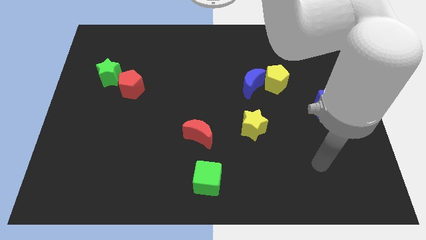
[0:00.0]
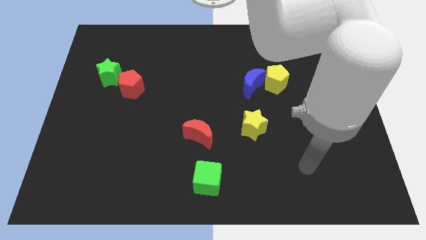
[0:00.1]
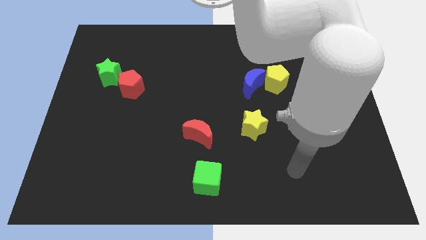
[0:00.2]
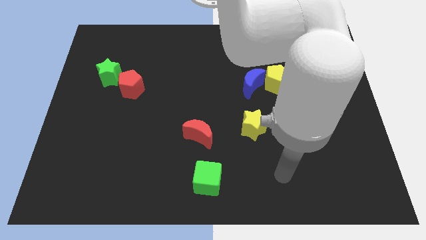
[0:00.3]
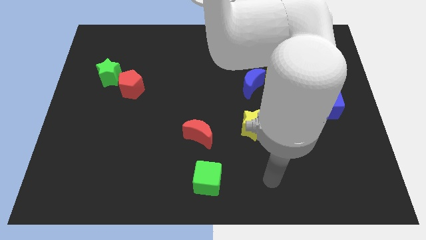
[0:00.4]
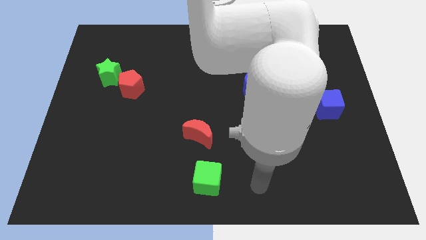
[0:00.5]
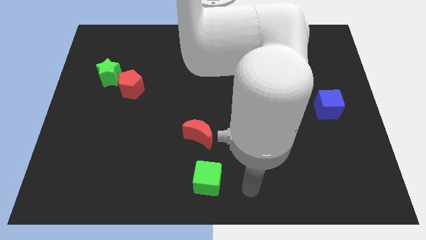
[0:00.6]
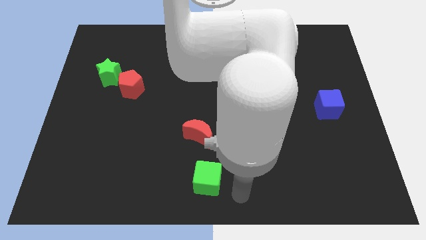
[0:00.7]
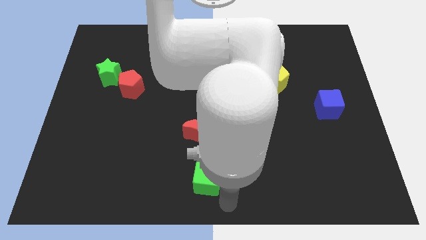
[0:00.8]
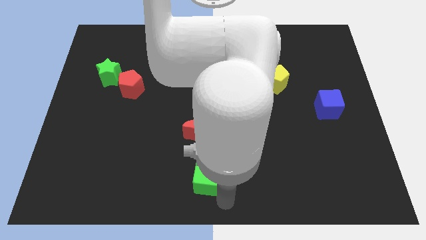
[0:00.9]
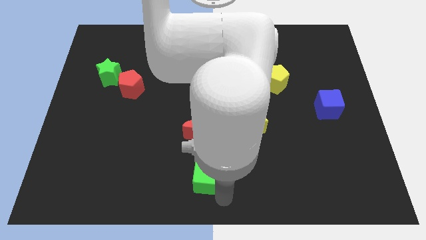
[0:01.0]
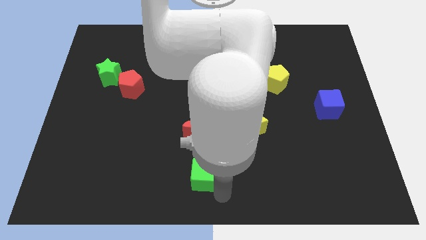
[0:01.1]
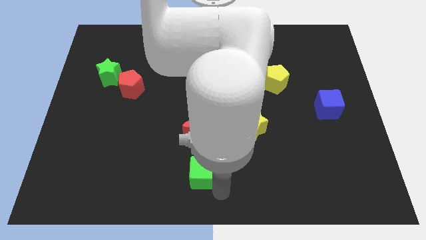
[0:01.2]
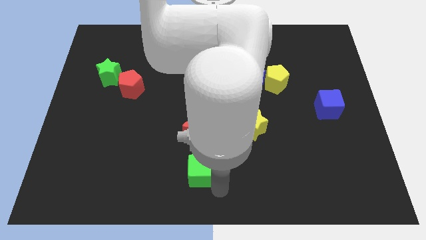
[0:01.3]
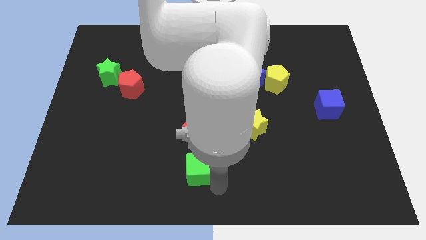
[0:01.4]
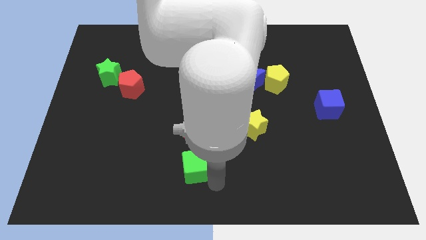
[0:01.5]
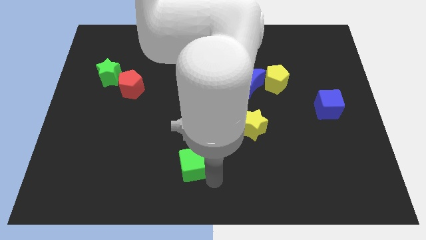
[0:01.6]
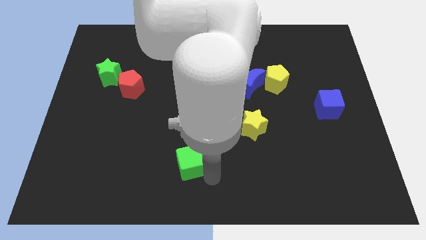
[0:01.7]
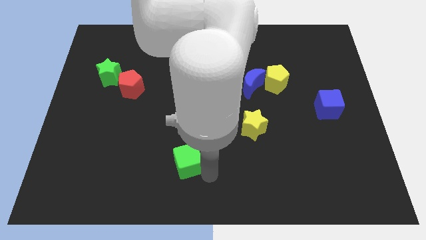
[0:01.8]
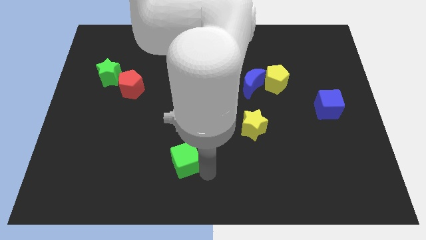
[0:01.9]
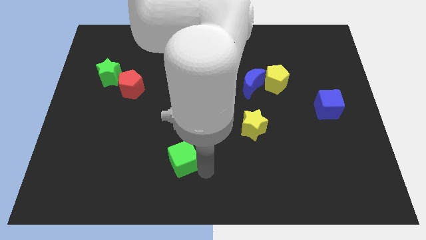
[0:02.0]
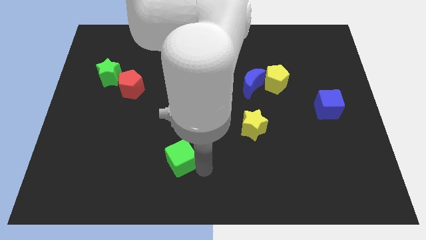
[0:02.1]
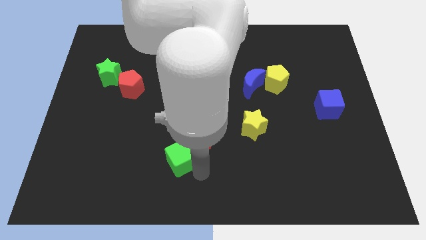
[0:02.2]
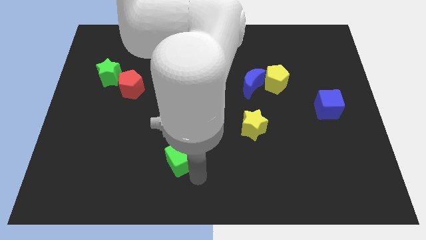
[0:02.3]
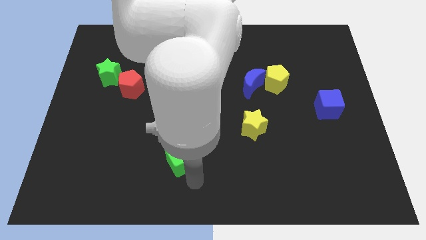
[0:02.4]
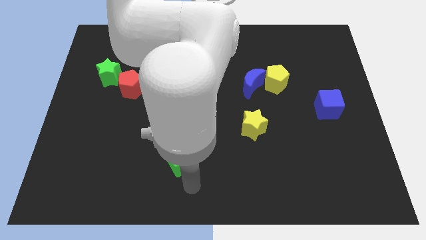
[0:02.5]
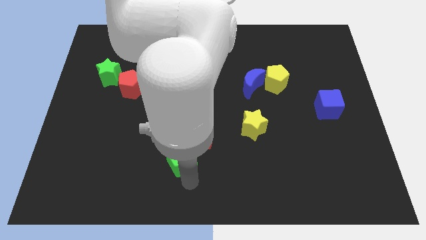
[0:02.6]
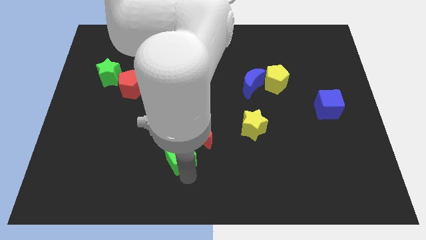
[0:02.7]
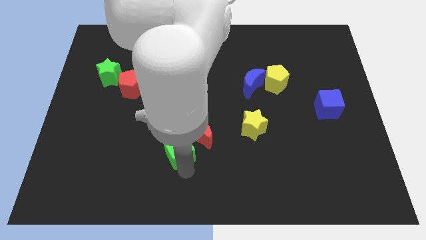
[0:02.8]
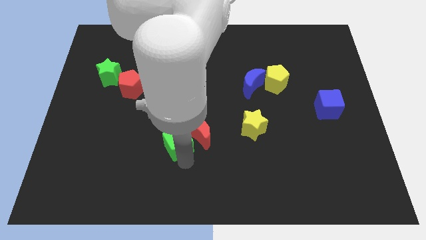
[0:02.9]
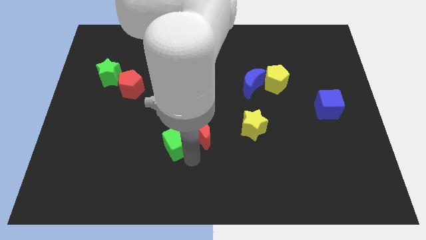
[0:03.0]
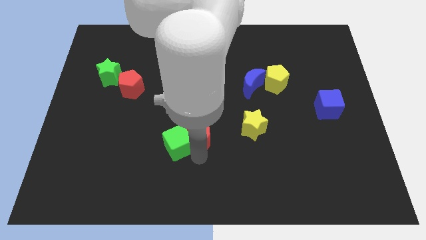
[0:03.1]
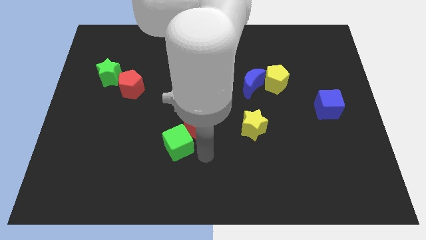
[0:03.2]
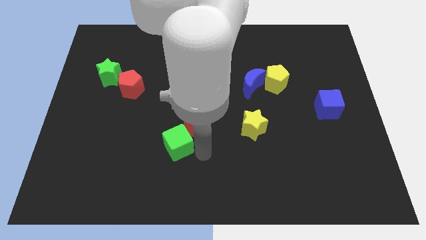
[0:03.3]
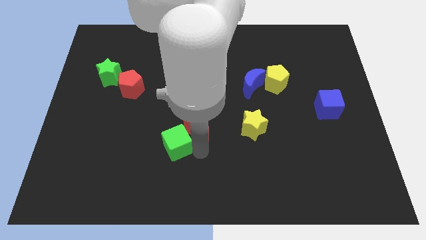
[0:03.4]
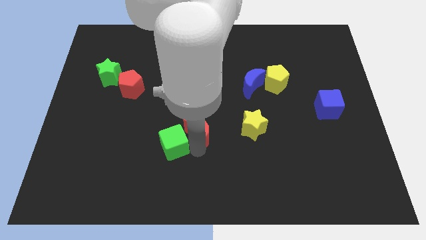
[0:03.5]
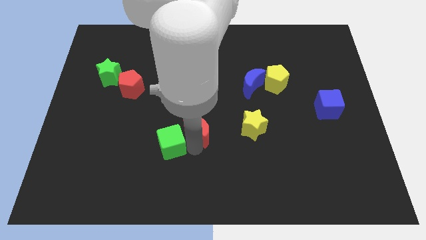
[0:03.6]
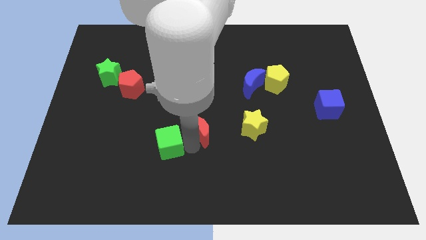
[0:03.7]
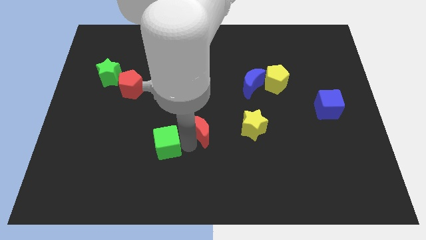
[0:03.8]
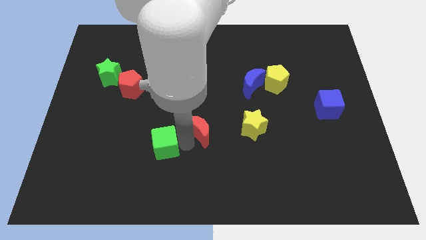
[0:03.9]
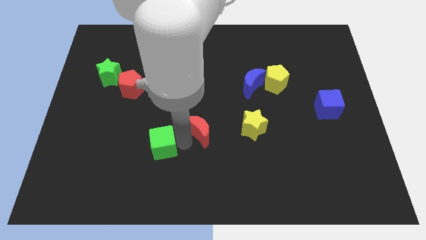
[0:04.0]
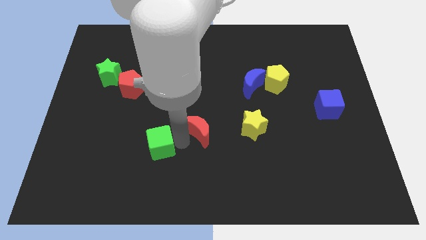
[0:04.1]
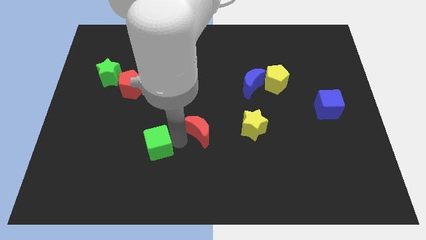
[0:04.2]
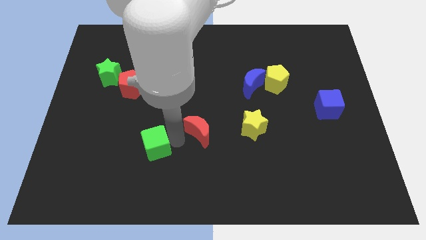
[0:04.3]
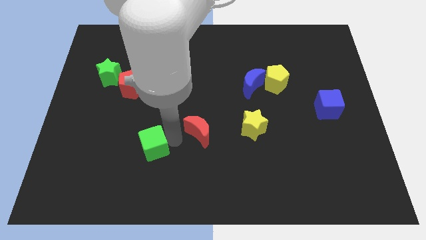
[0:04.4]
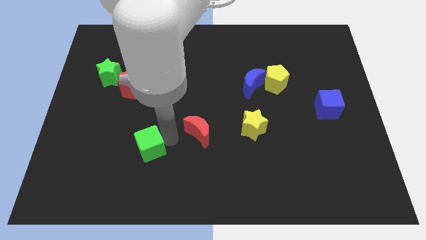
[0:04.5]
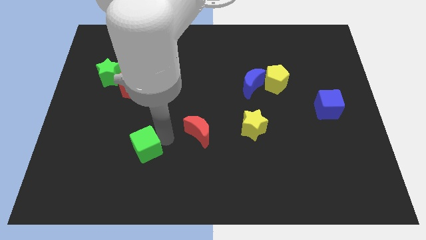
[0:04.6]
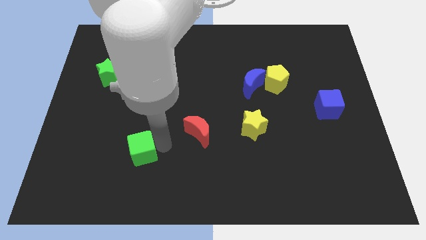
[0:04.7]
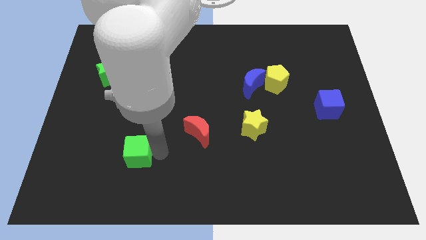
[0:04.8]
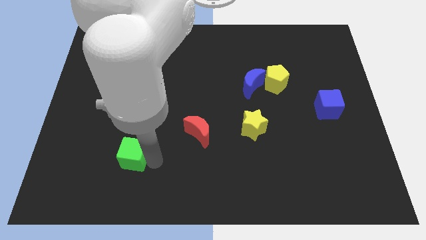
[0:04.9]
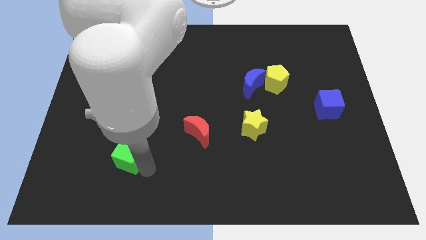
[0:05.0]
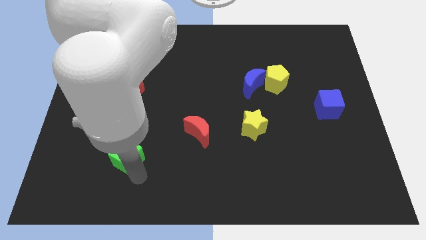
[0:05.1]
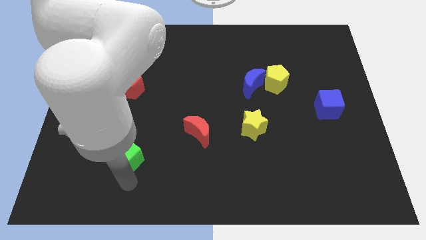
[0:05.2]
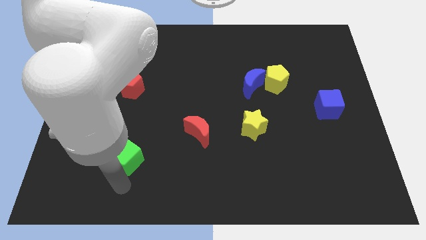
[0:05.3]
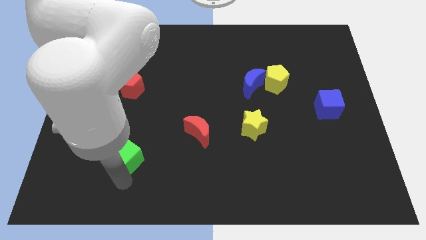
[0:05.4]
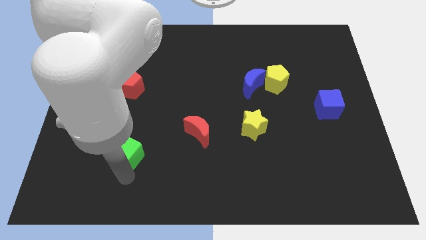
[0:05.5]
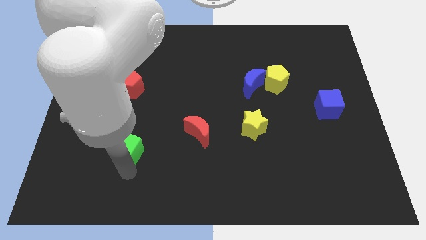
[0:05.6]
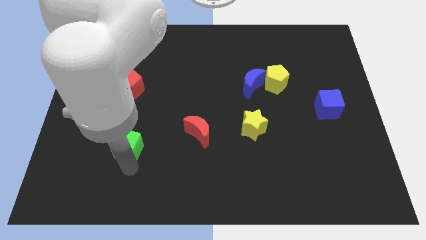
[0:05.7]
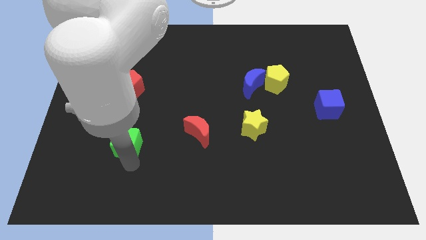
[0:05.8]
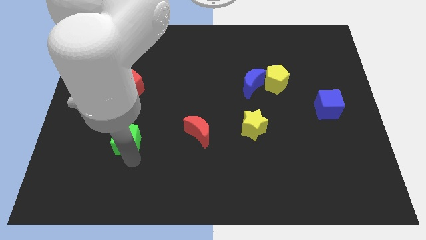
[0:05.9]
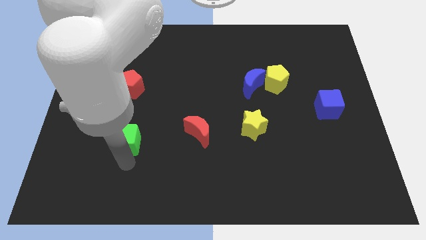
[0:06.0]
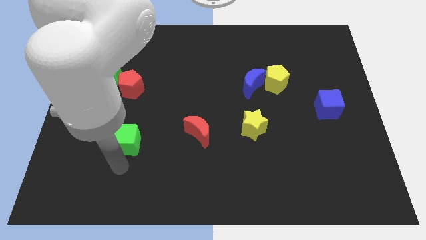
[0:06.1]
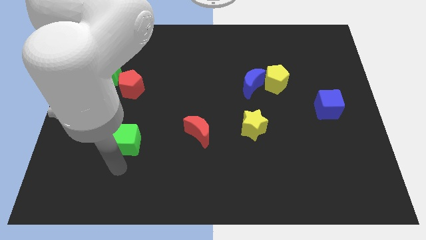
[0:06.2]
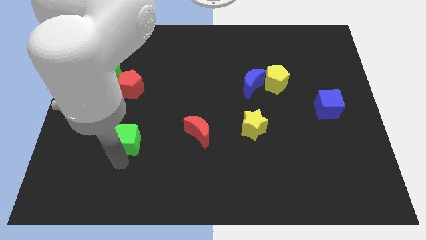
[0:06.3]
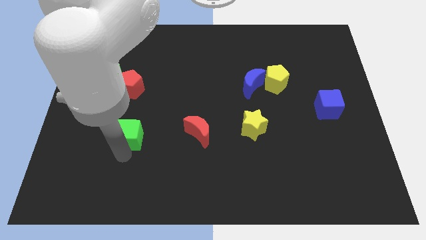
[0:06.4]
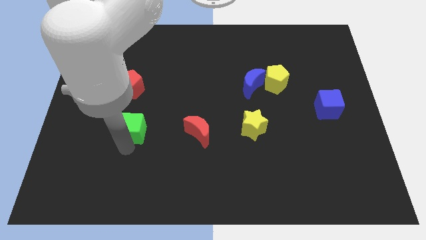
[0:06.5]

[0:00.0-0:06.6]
move the green cube upwards and to the left diagonally

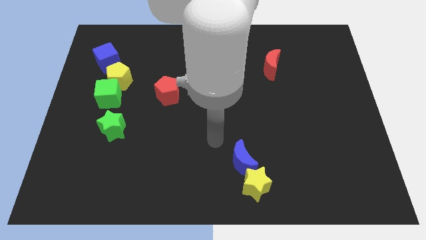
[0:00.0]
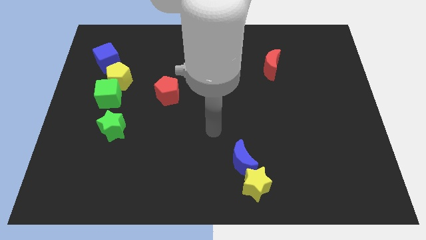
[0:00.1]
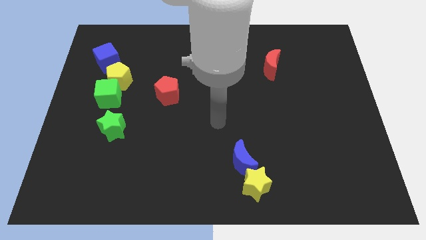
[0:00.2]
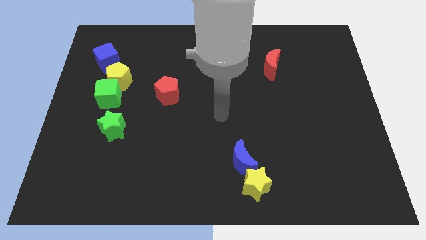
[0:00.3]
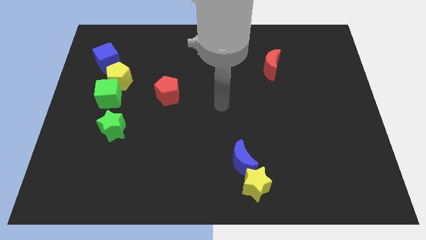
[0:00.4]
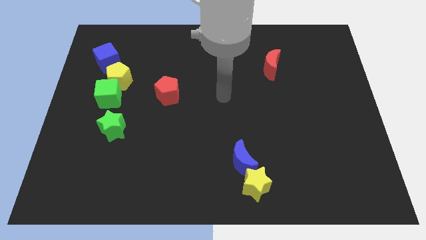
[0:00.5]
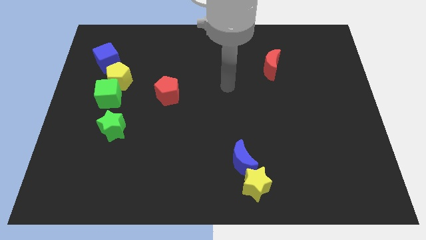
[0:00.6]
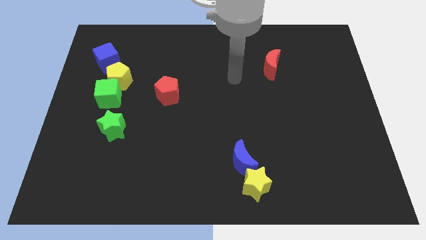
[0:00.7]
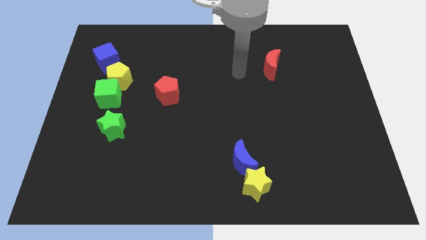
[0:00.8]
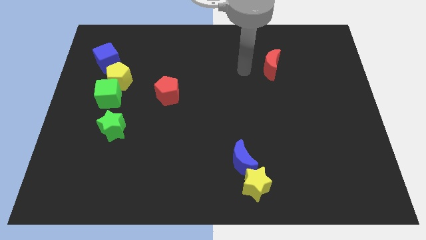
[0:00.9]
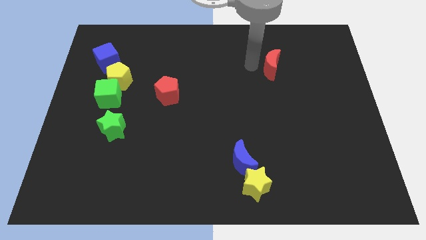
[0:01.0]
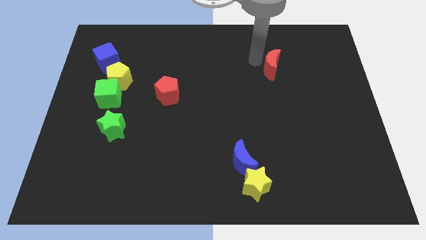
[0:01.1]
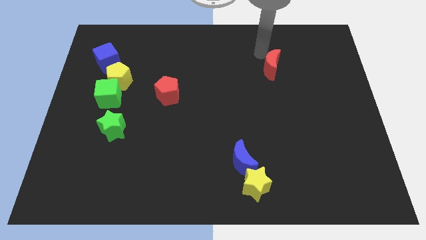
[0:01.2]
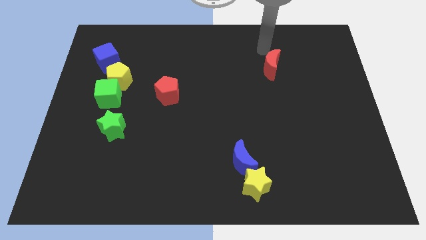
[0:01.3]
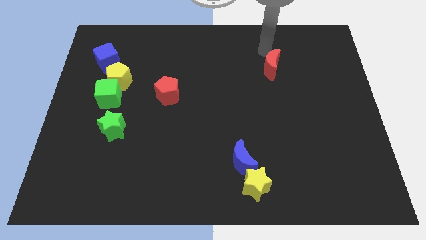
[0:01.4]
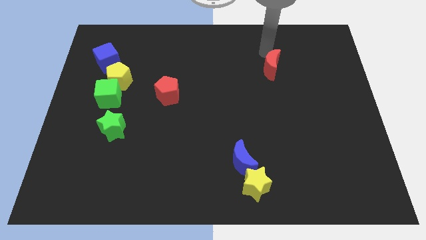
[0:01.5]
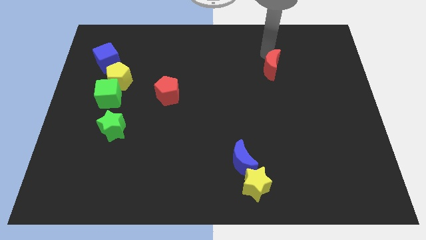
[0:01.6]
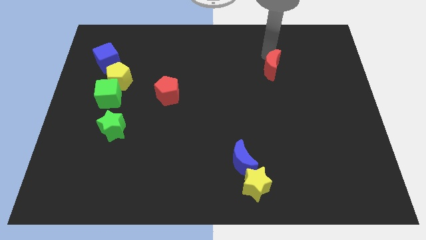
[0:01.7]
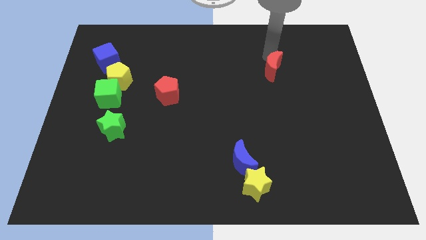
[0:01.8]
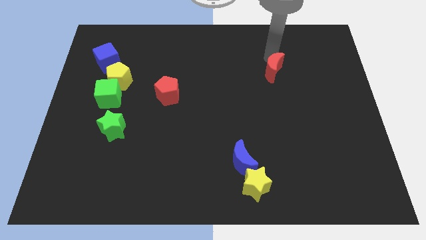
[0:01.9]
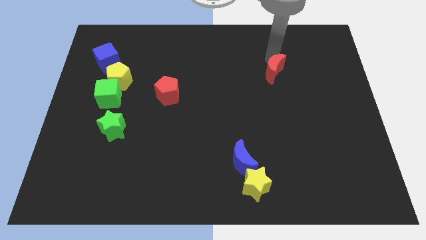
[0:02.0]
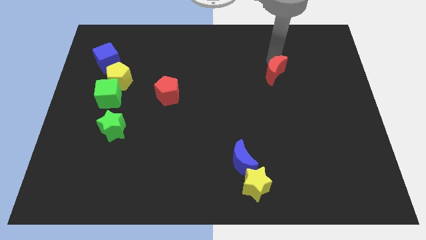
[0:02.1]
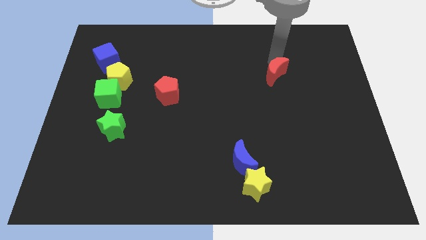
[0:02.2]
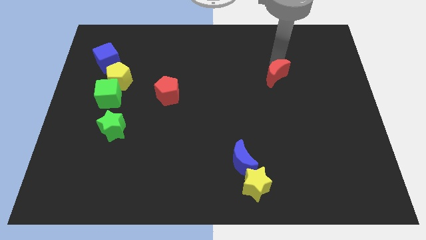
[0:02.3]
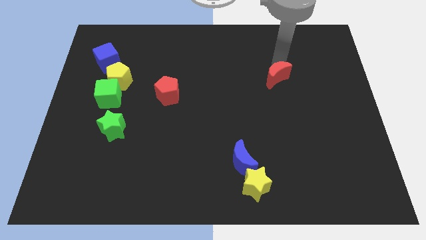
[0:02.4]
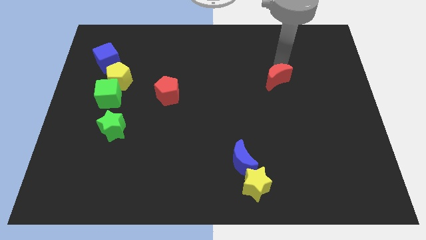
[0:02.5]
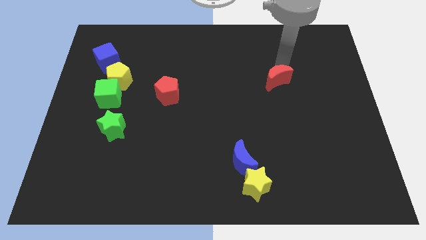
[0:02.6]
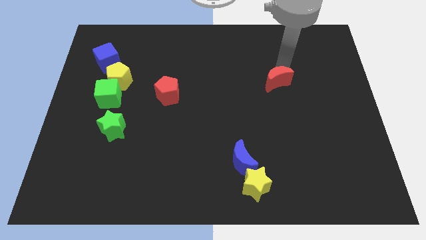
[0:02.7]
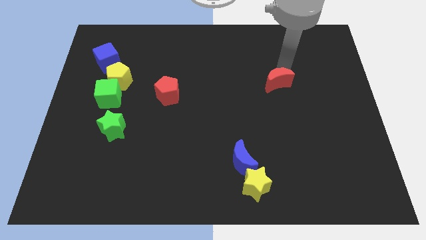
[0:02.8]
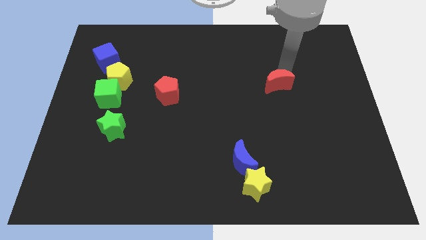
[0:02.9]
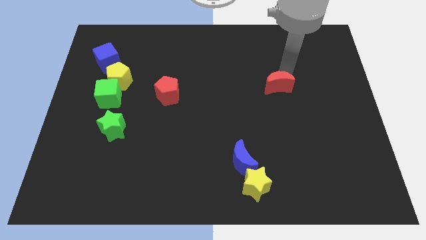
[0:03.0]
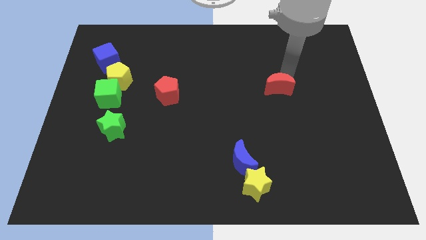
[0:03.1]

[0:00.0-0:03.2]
slightly push the red moon downwards
